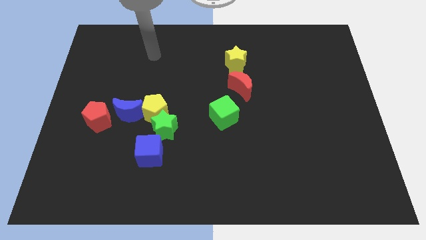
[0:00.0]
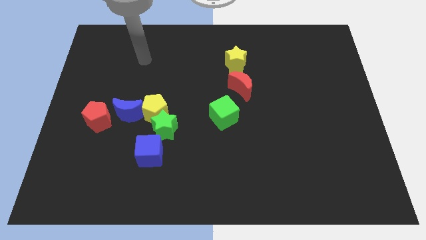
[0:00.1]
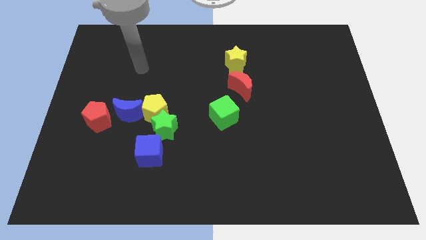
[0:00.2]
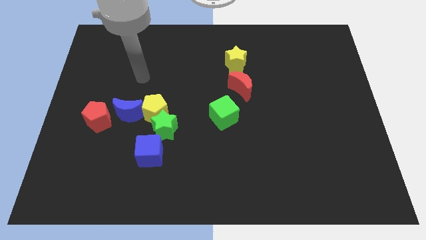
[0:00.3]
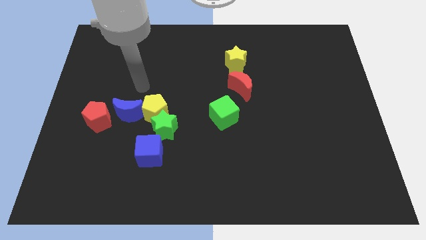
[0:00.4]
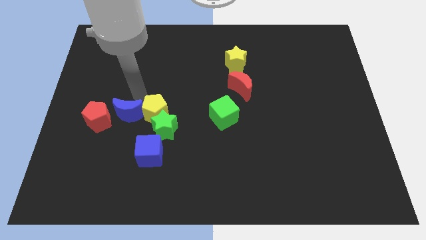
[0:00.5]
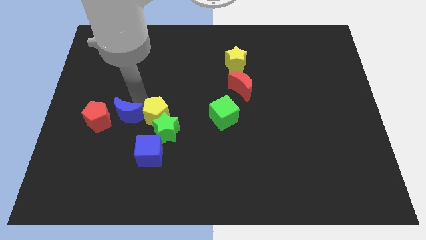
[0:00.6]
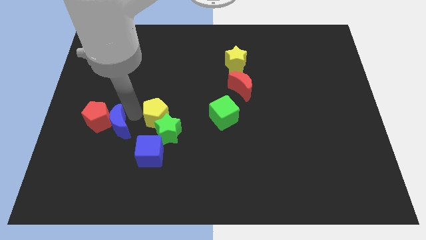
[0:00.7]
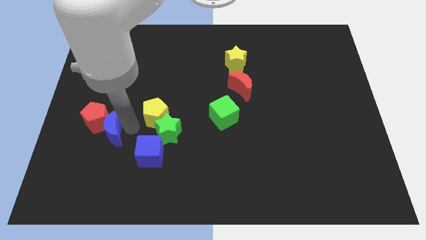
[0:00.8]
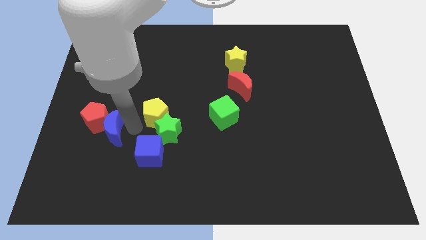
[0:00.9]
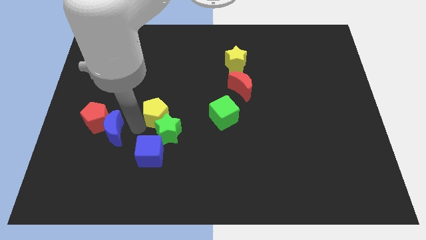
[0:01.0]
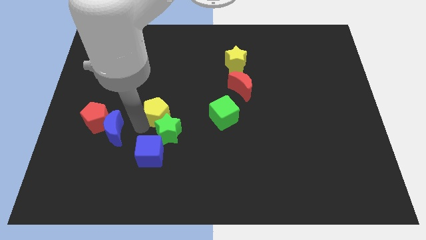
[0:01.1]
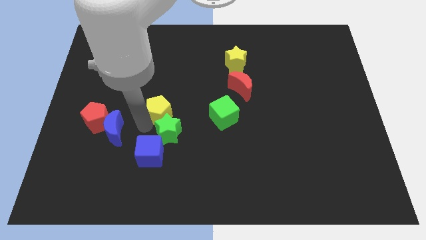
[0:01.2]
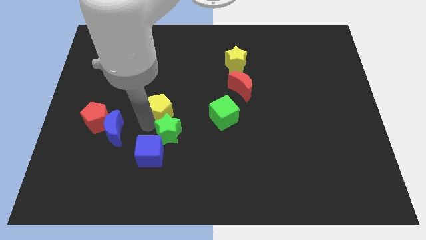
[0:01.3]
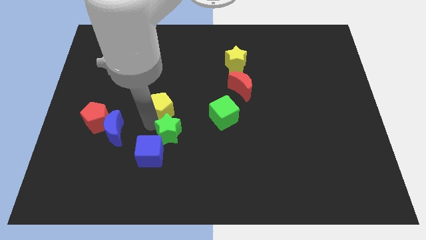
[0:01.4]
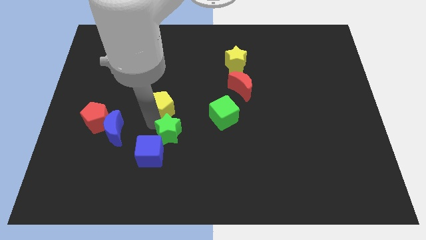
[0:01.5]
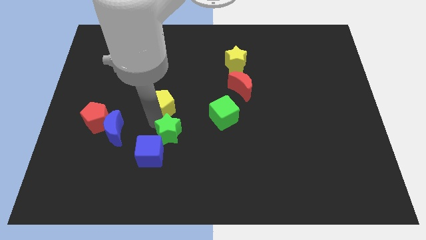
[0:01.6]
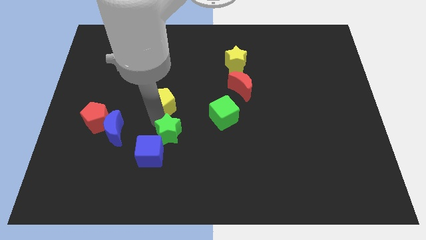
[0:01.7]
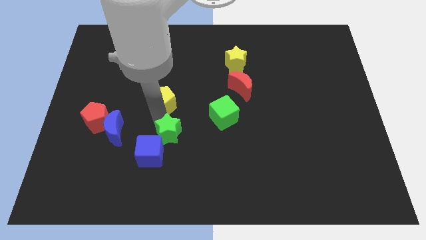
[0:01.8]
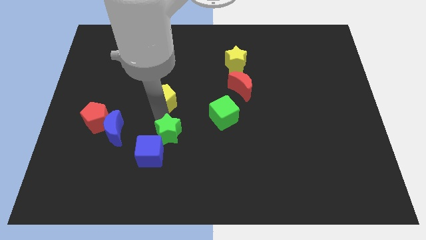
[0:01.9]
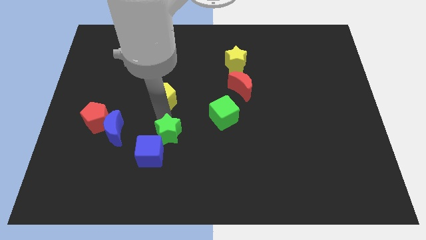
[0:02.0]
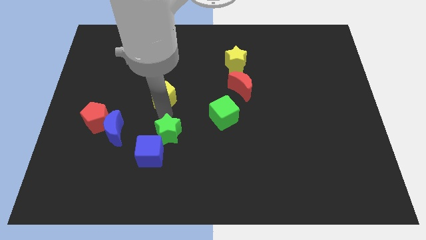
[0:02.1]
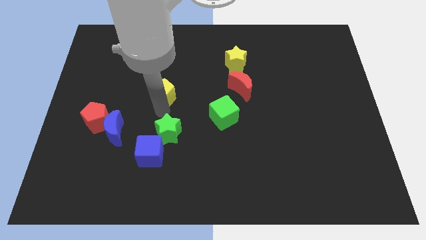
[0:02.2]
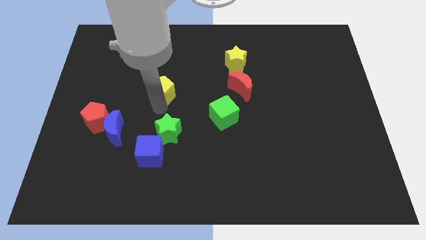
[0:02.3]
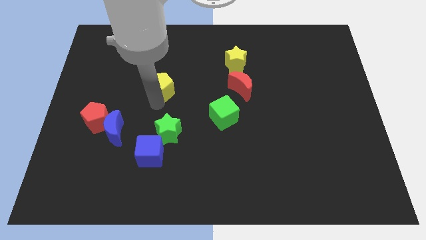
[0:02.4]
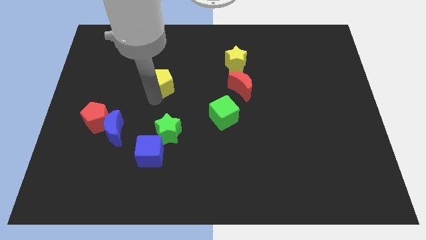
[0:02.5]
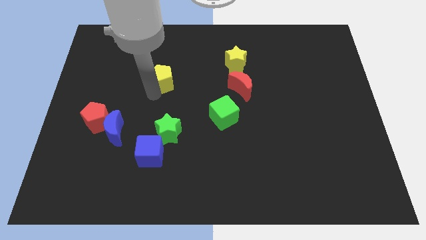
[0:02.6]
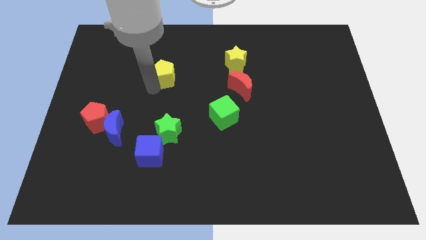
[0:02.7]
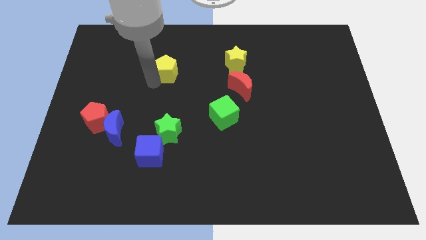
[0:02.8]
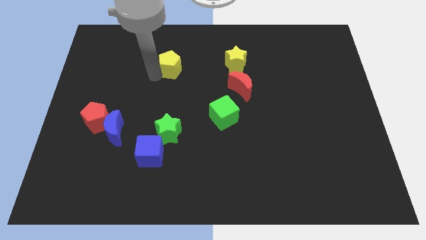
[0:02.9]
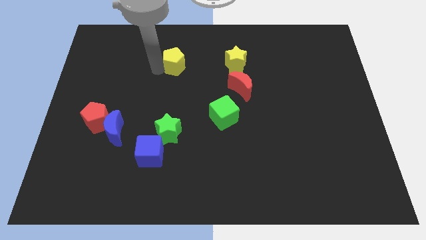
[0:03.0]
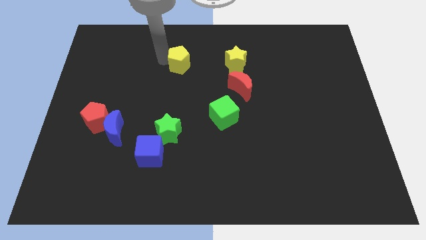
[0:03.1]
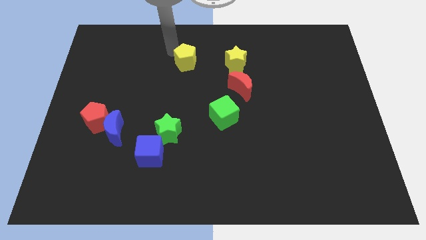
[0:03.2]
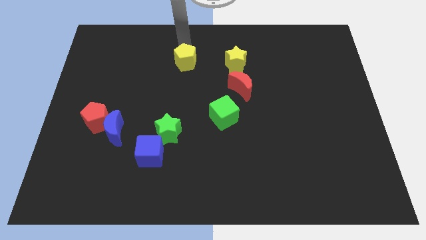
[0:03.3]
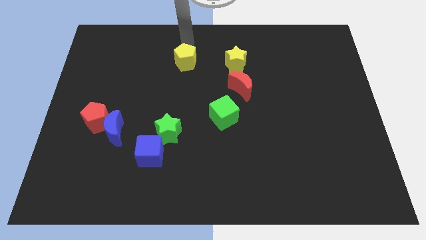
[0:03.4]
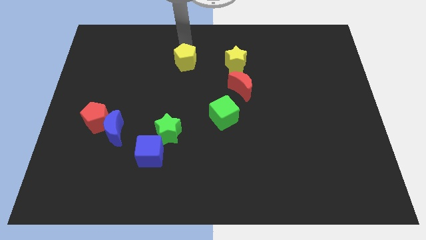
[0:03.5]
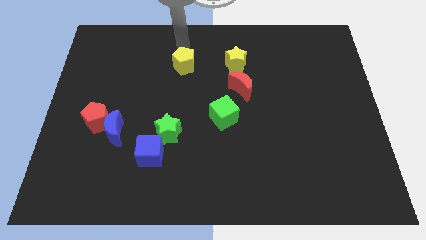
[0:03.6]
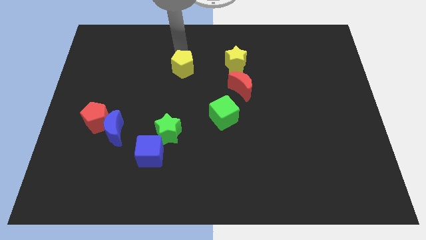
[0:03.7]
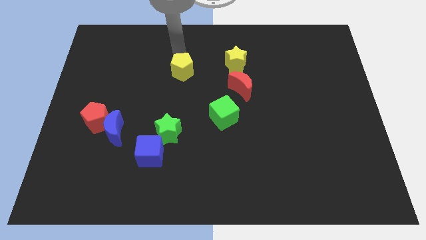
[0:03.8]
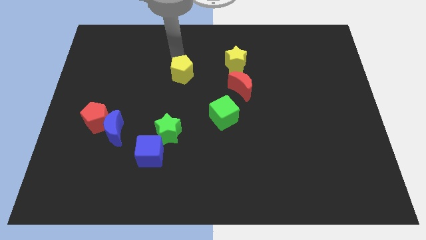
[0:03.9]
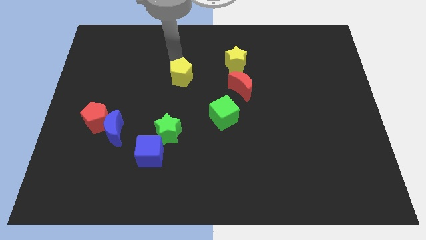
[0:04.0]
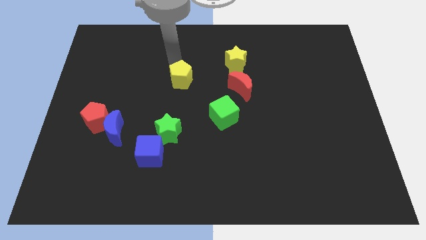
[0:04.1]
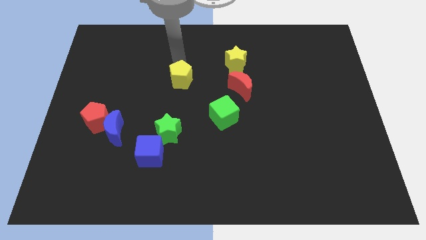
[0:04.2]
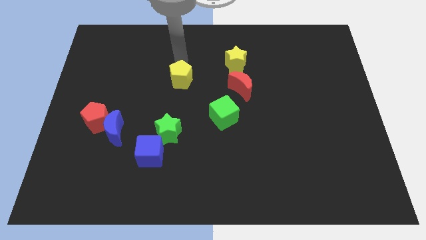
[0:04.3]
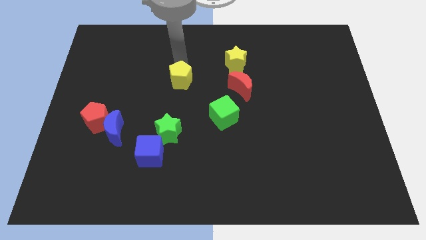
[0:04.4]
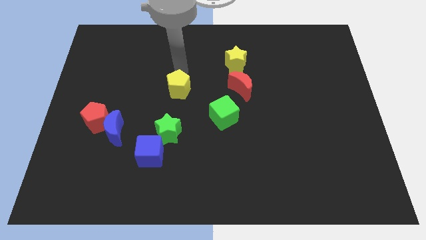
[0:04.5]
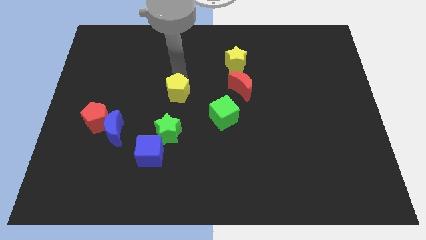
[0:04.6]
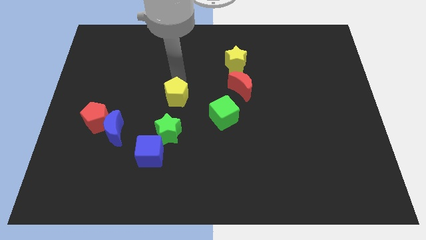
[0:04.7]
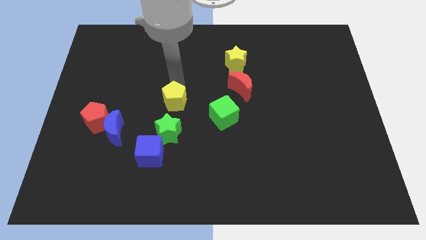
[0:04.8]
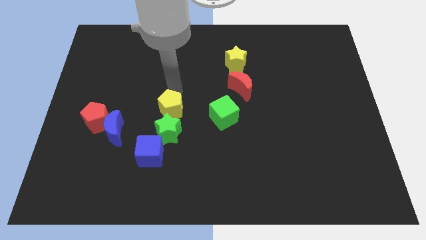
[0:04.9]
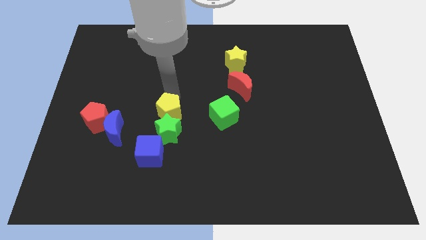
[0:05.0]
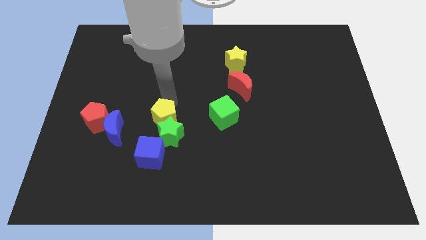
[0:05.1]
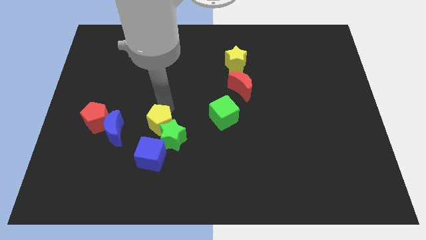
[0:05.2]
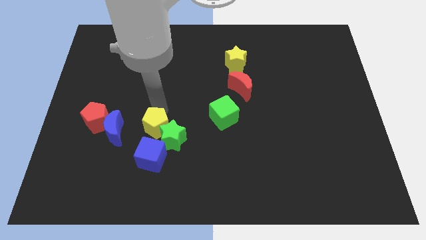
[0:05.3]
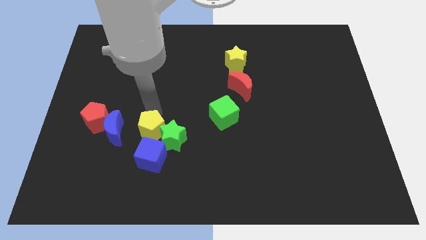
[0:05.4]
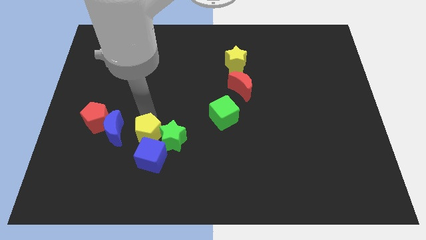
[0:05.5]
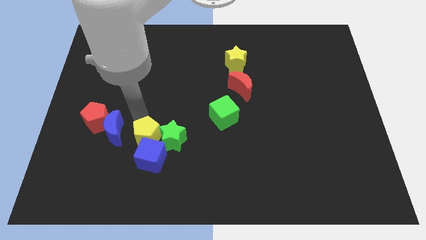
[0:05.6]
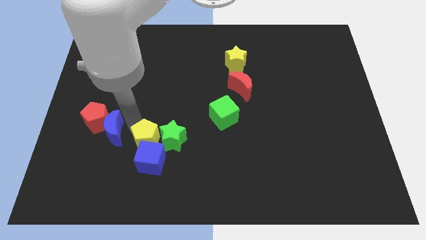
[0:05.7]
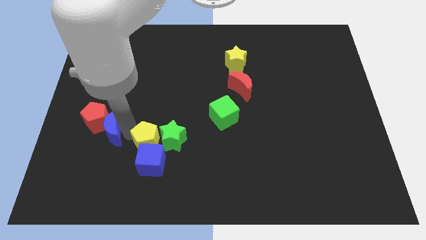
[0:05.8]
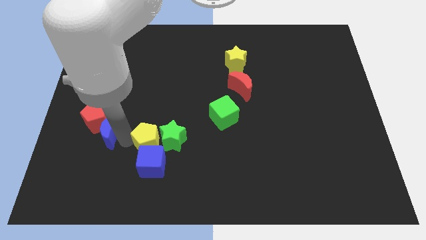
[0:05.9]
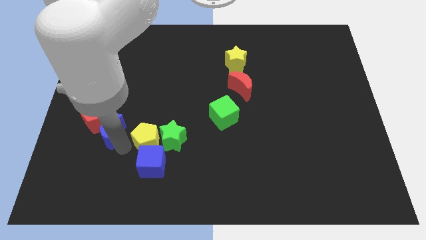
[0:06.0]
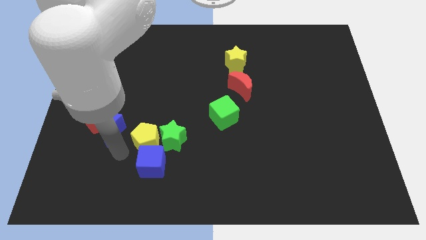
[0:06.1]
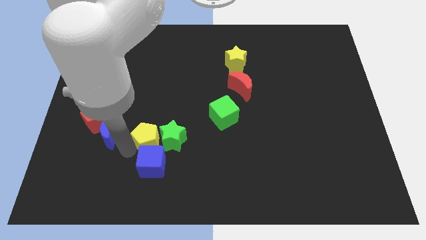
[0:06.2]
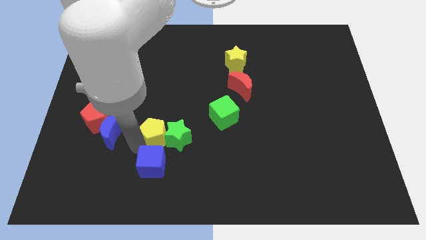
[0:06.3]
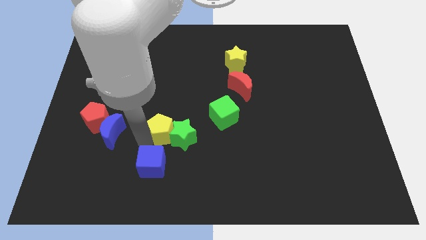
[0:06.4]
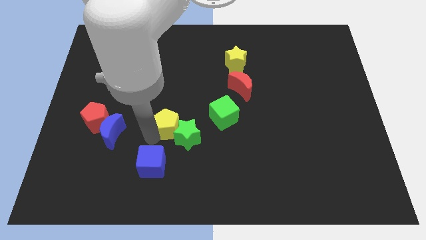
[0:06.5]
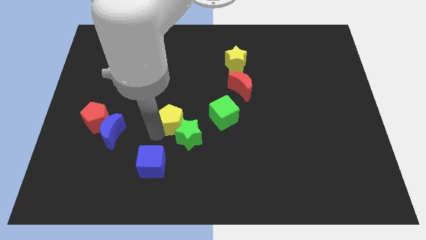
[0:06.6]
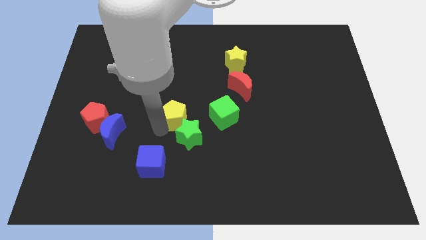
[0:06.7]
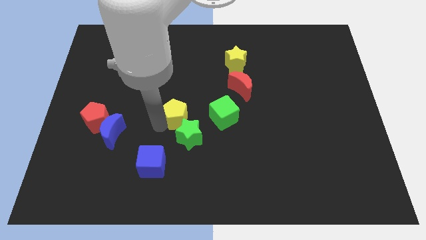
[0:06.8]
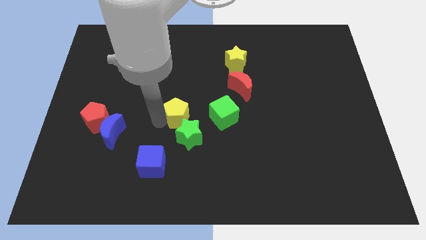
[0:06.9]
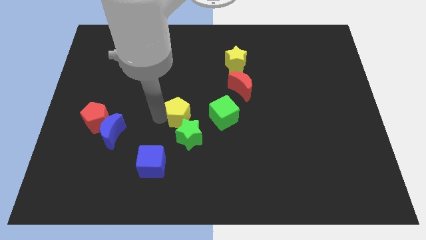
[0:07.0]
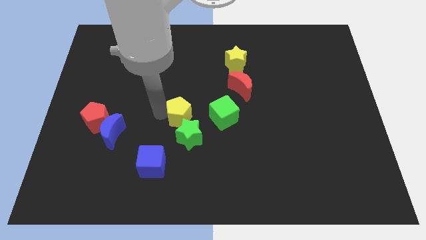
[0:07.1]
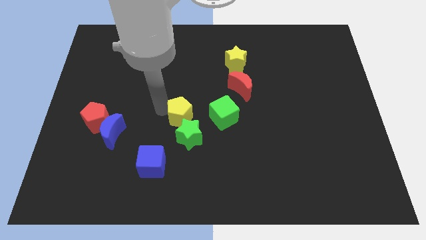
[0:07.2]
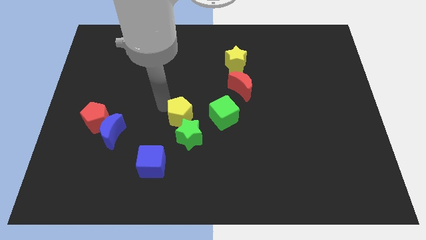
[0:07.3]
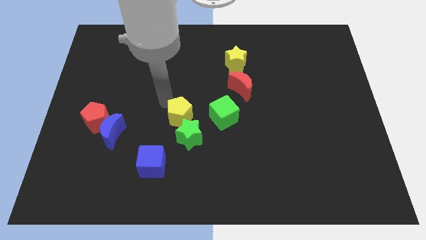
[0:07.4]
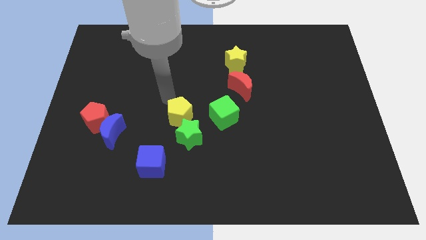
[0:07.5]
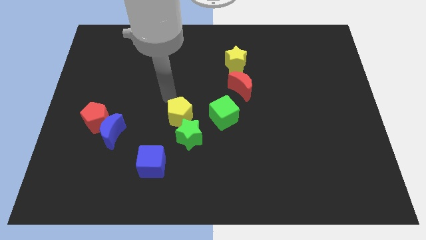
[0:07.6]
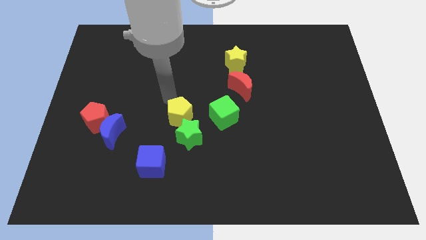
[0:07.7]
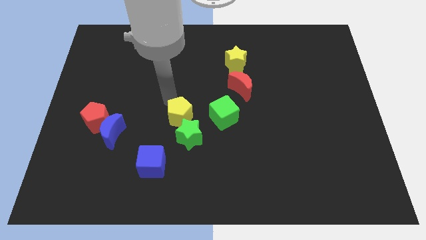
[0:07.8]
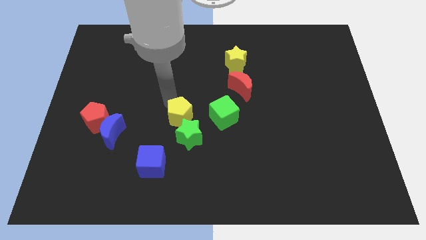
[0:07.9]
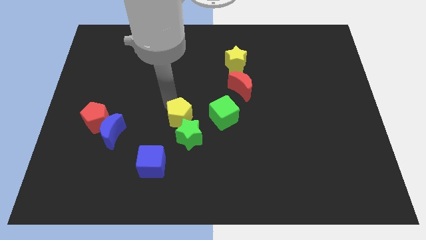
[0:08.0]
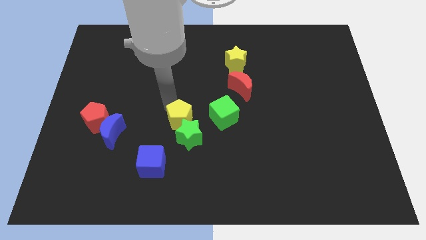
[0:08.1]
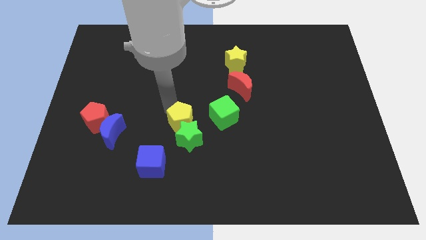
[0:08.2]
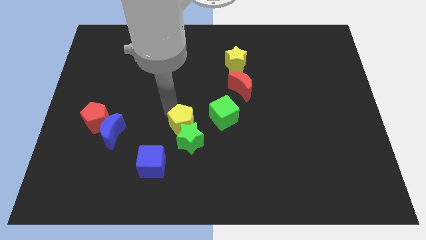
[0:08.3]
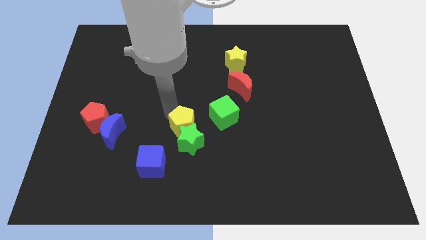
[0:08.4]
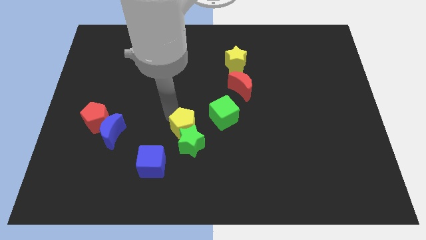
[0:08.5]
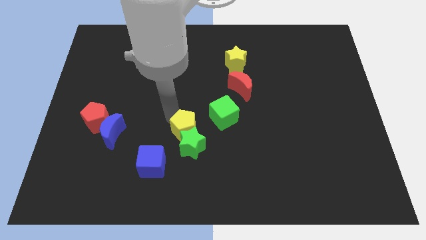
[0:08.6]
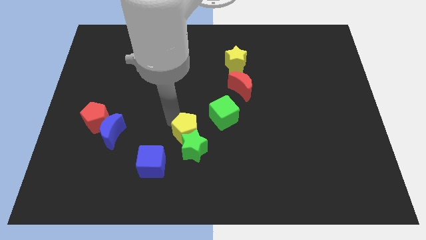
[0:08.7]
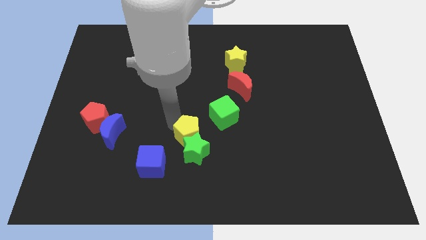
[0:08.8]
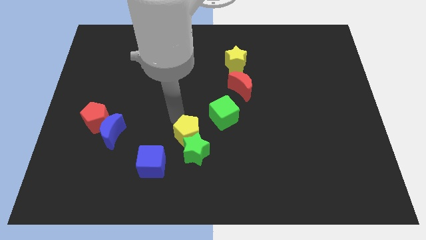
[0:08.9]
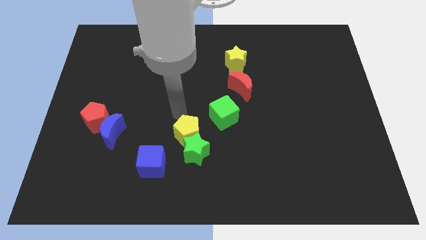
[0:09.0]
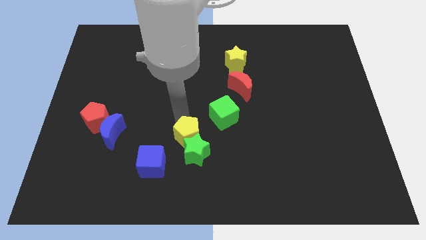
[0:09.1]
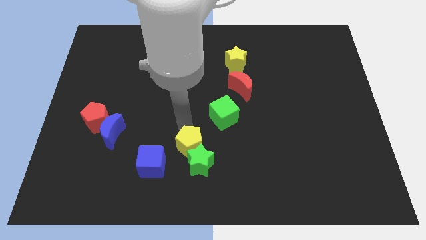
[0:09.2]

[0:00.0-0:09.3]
push the yellow pentagon to the right side of the blue cube
